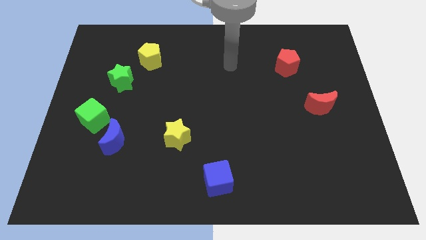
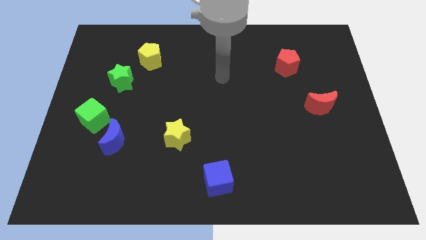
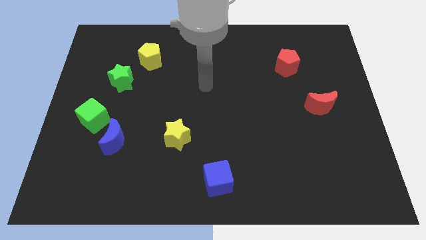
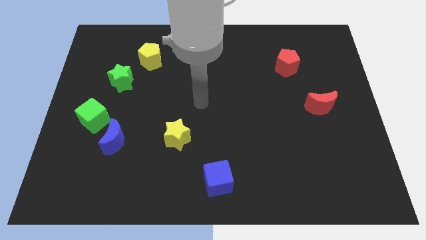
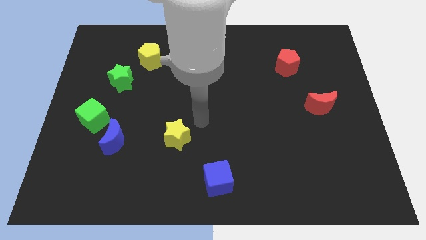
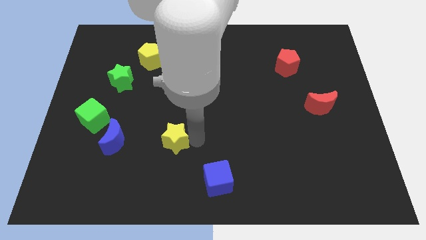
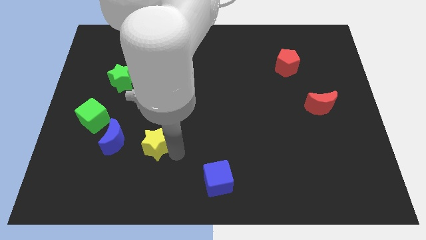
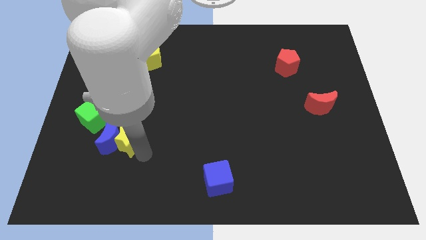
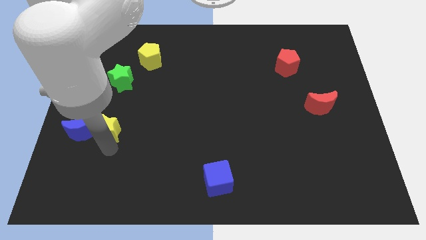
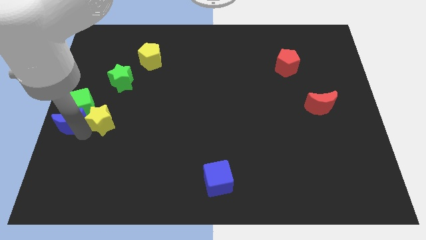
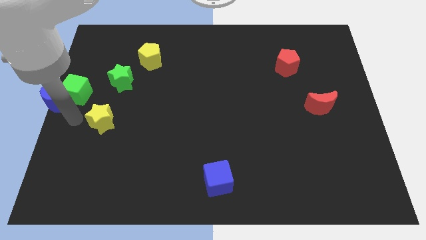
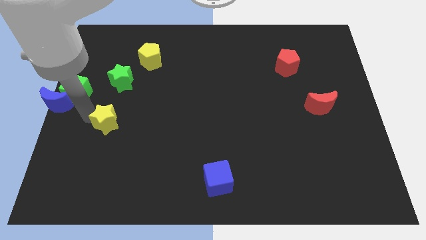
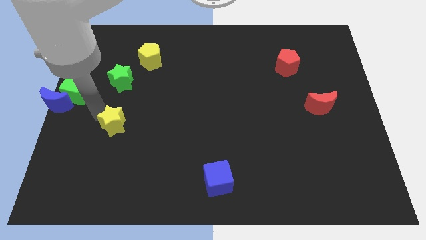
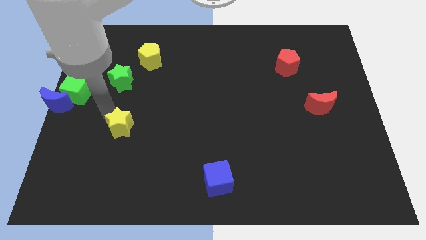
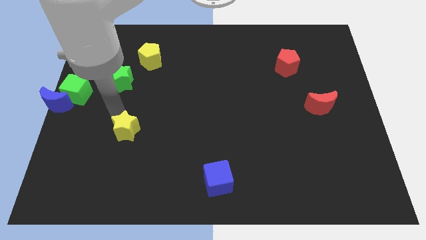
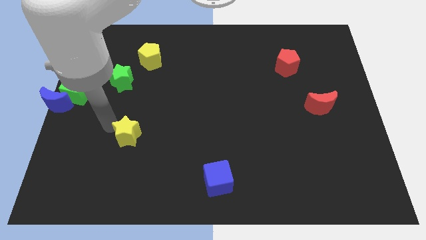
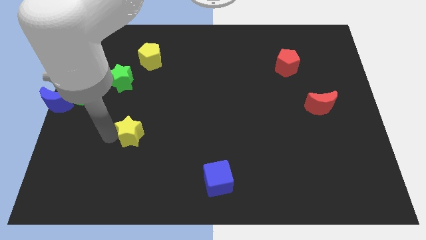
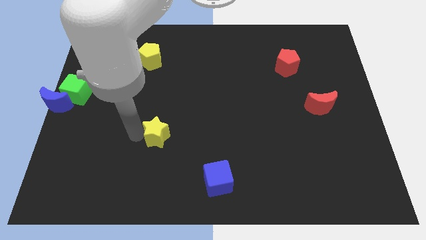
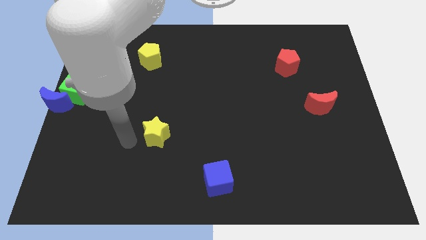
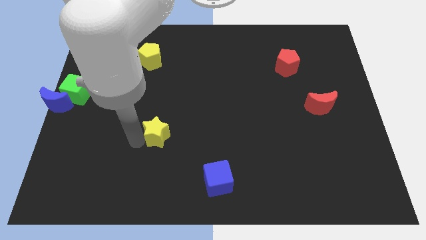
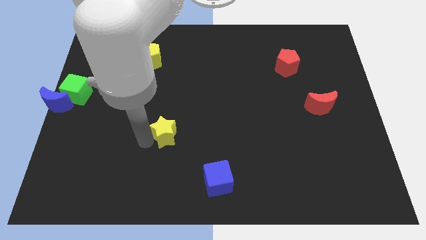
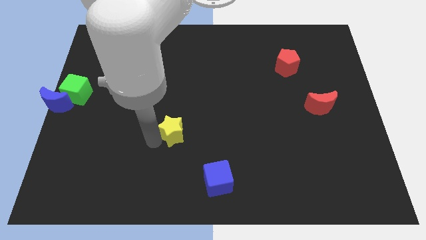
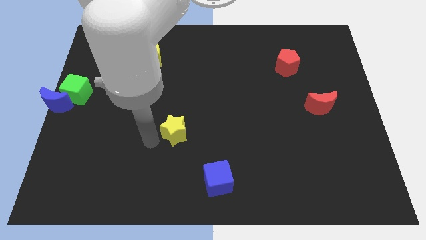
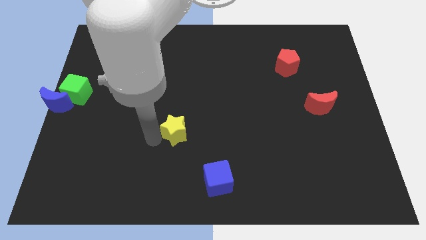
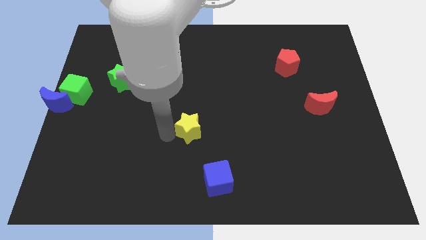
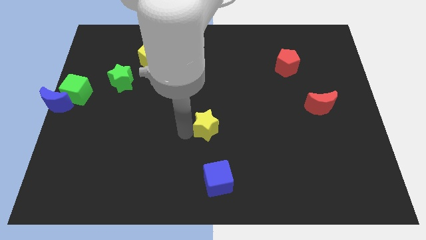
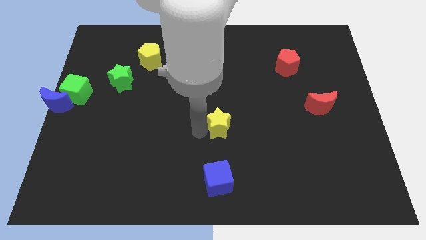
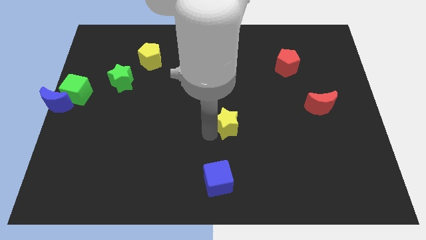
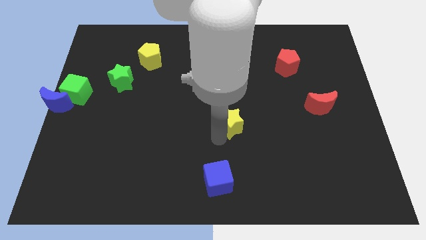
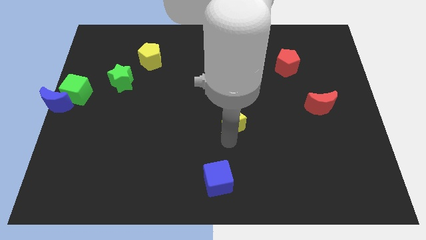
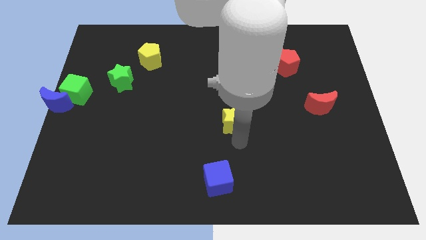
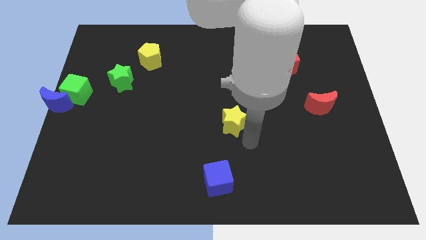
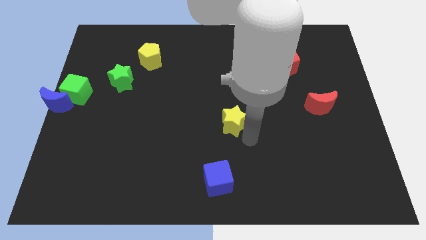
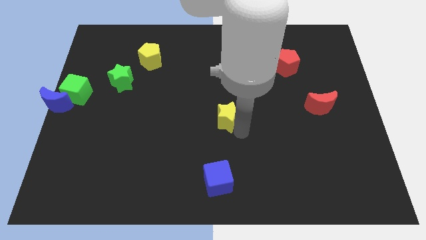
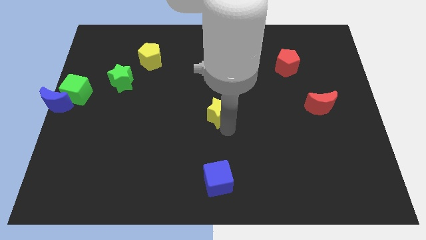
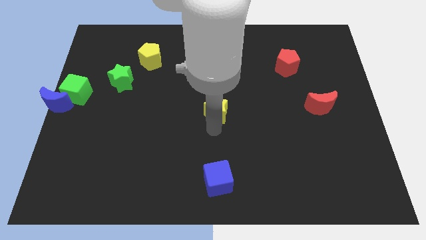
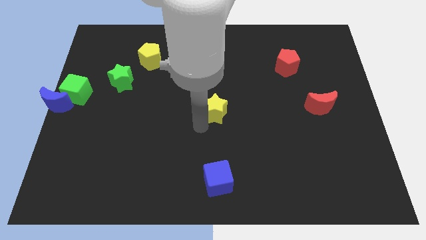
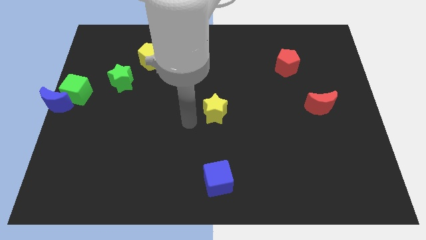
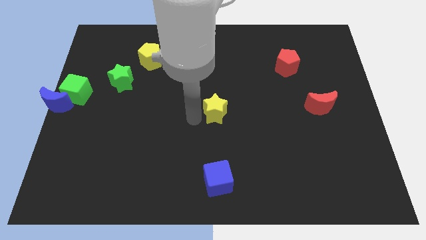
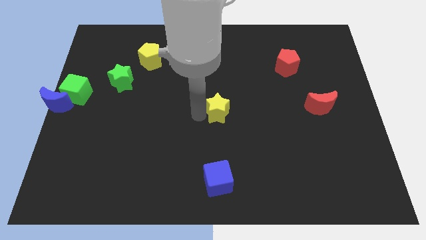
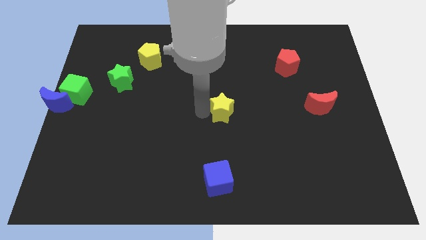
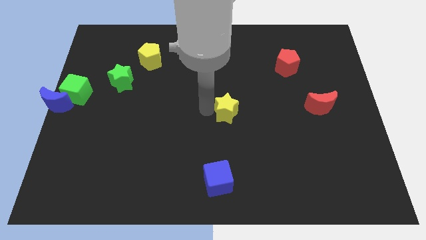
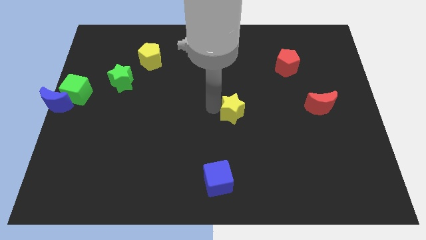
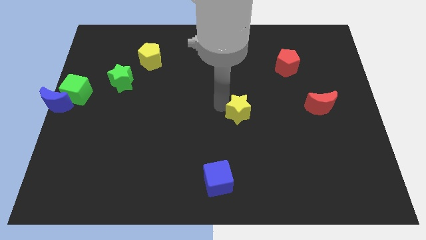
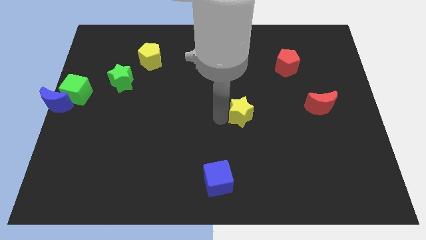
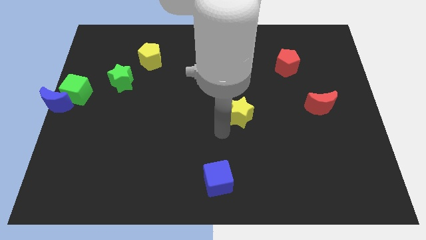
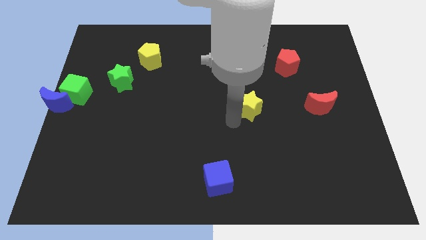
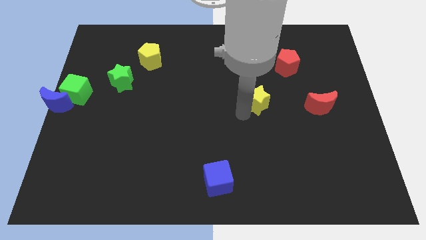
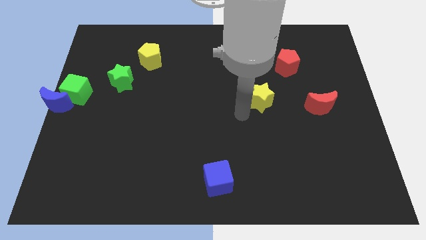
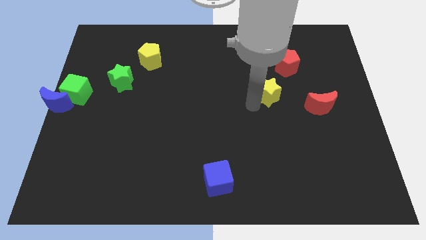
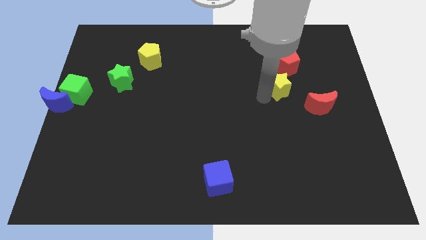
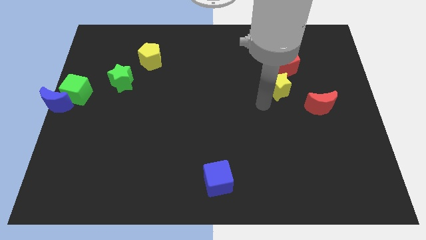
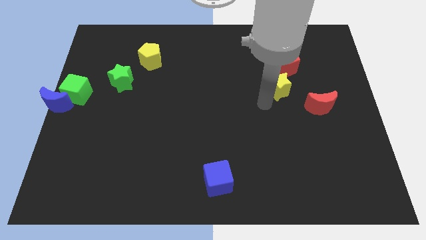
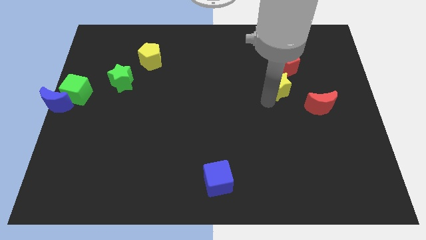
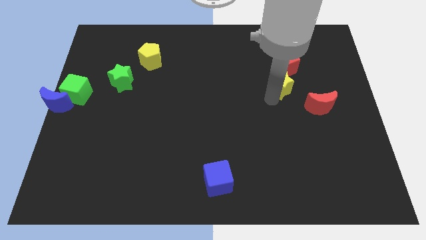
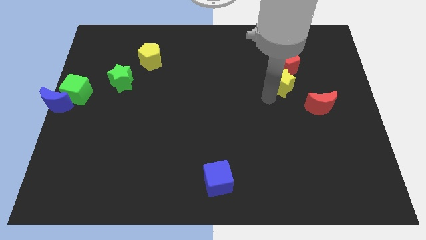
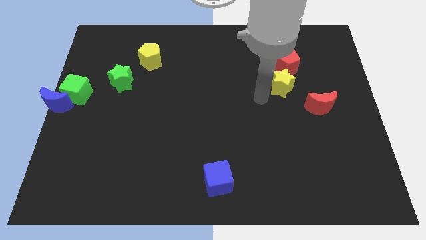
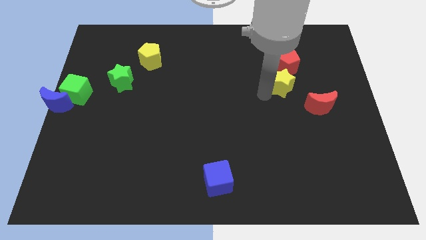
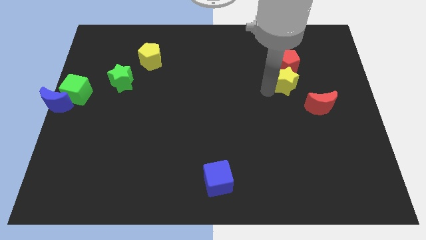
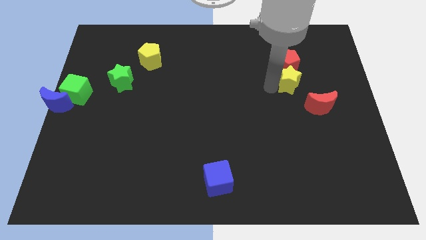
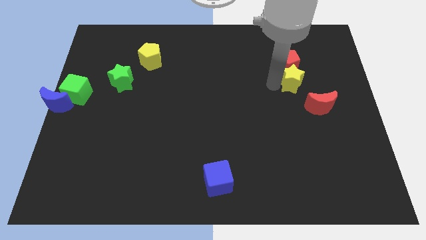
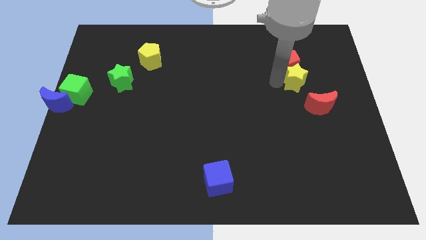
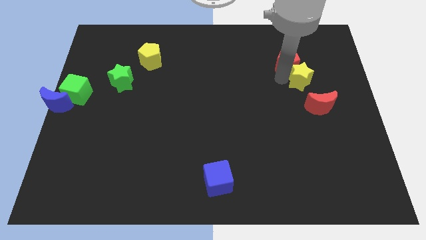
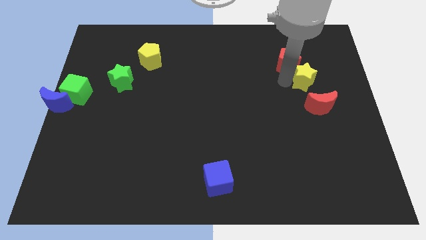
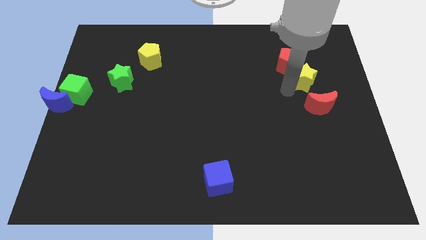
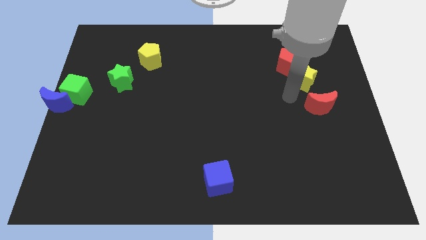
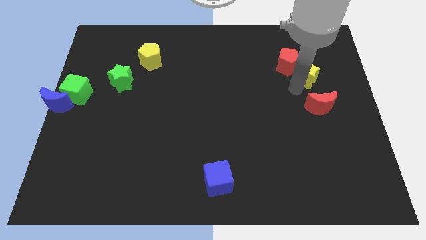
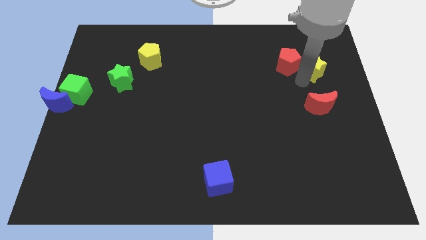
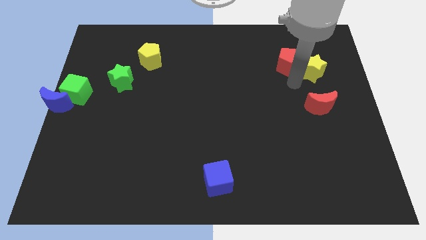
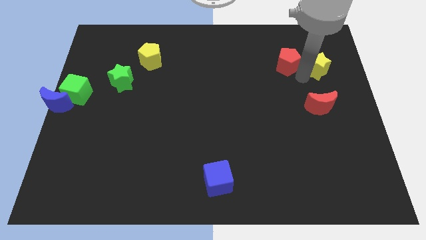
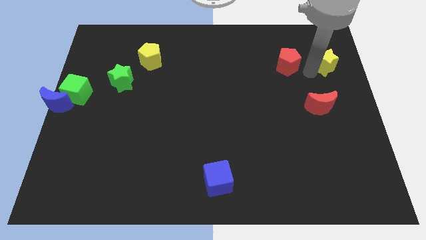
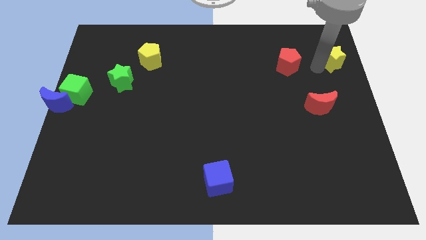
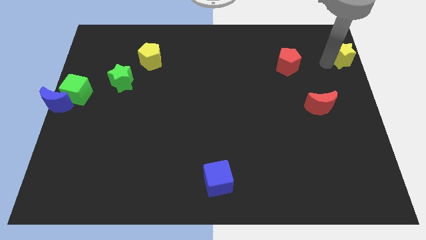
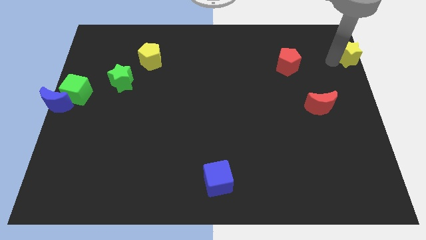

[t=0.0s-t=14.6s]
slide the yellow star to the top right corner

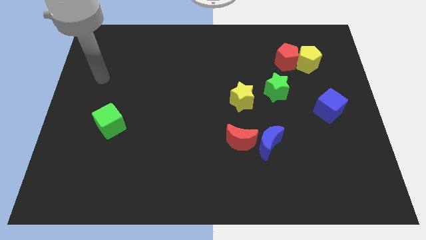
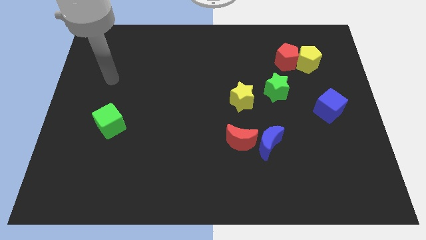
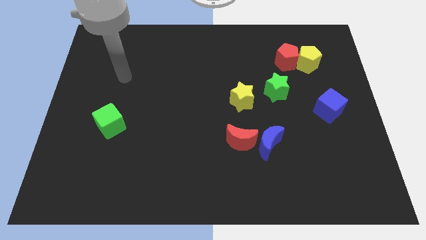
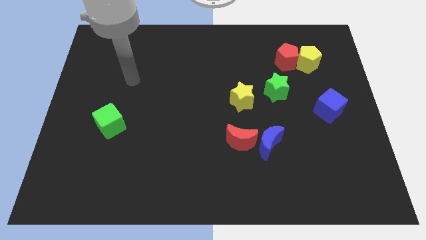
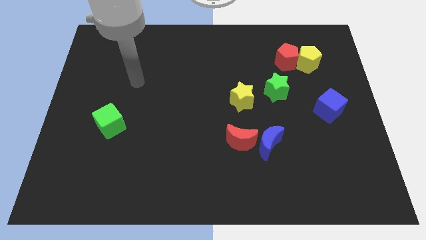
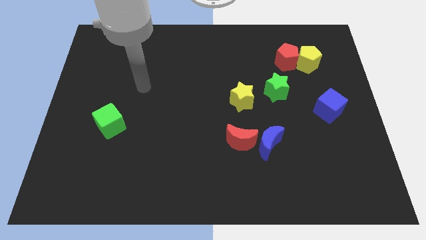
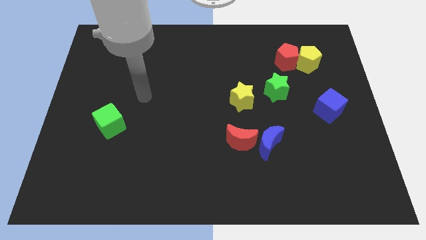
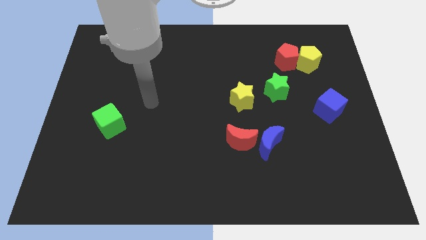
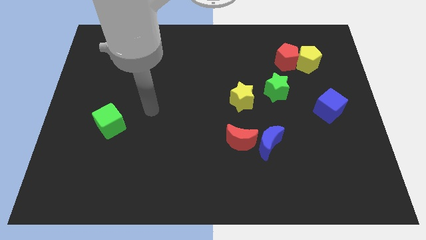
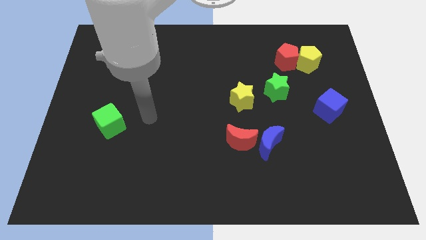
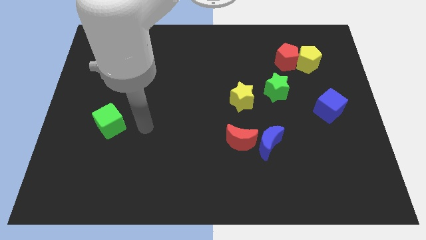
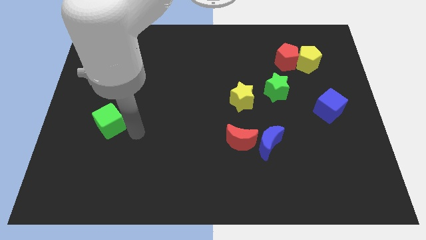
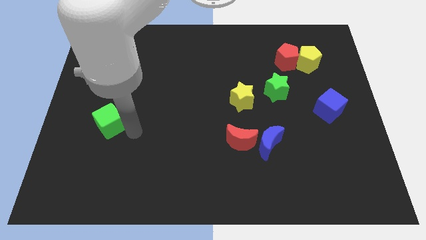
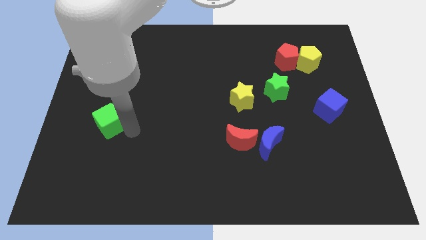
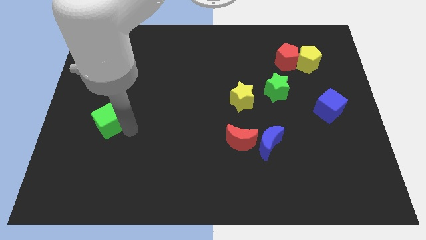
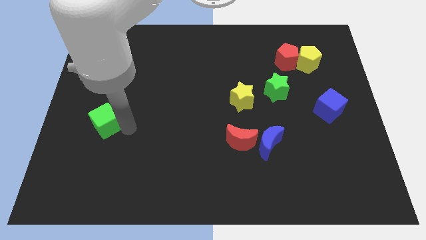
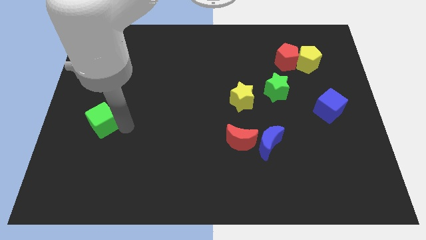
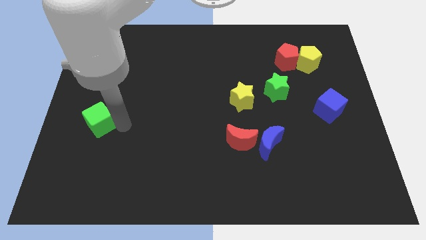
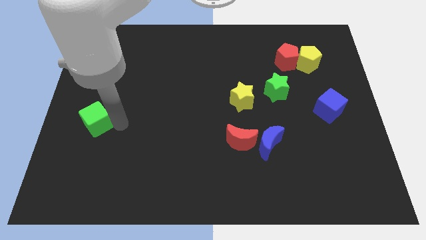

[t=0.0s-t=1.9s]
move the green cube to the center left
